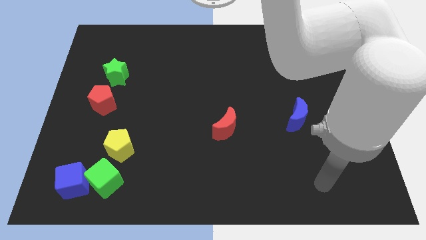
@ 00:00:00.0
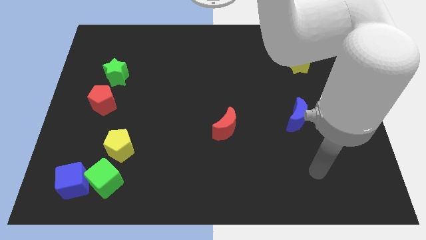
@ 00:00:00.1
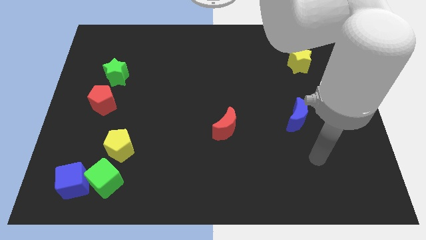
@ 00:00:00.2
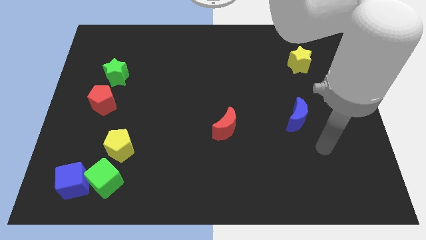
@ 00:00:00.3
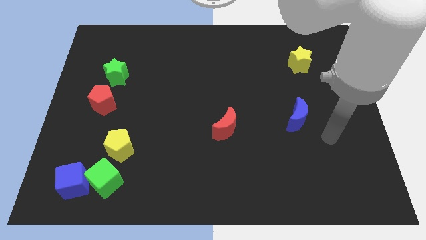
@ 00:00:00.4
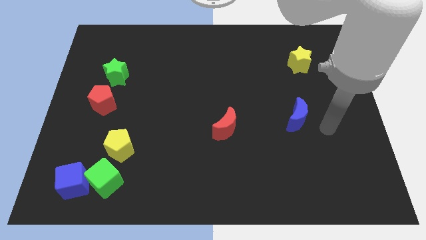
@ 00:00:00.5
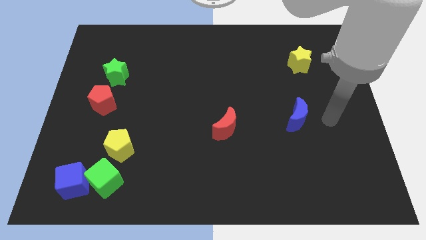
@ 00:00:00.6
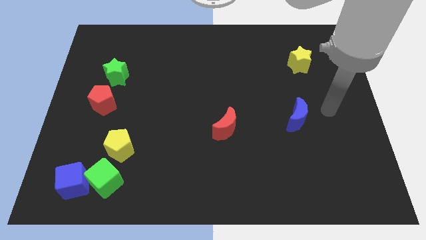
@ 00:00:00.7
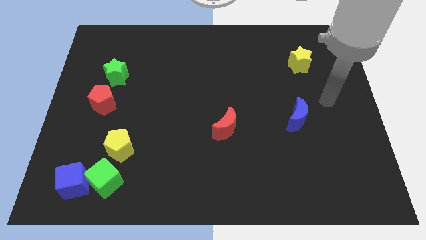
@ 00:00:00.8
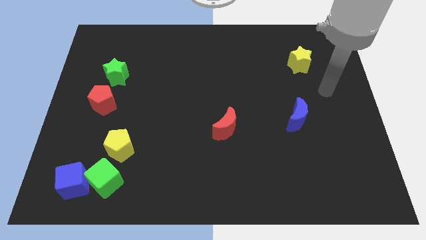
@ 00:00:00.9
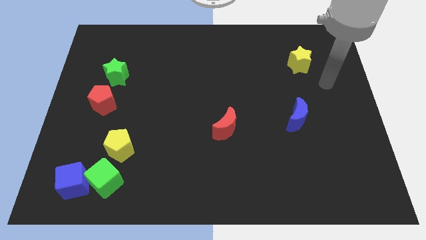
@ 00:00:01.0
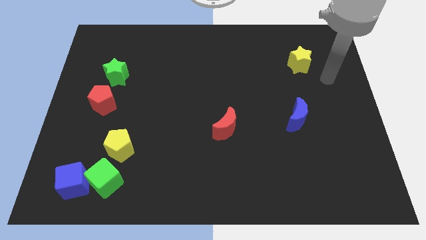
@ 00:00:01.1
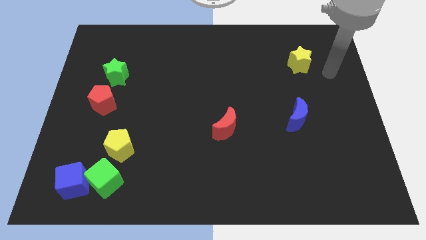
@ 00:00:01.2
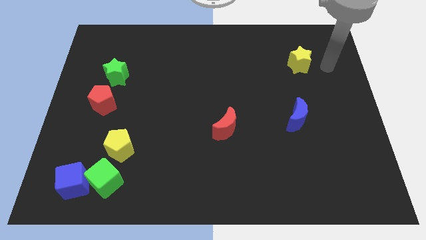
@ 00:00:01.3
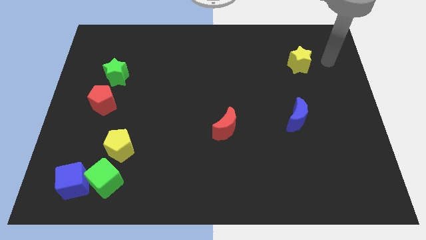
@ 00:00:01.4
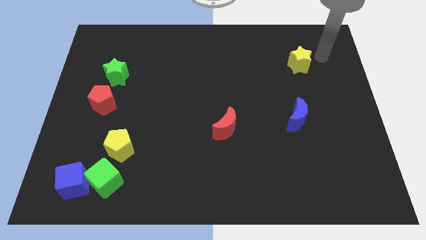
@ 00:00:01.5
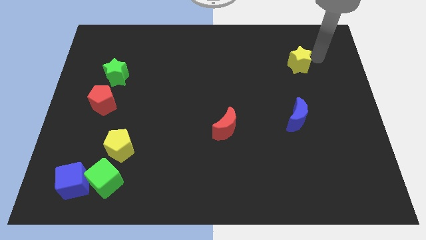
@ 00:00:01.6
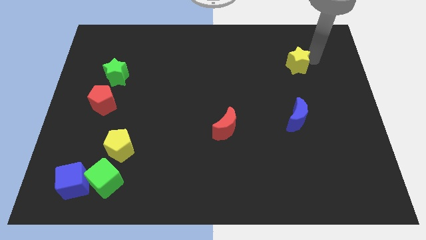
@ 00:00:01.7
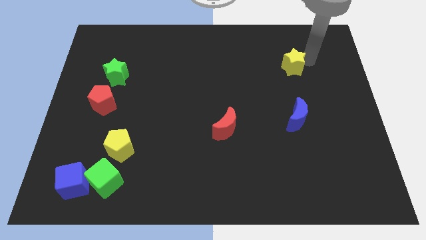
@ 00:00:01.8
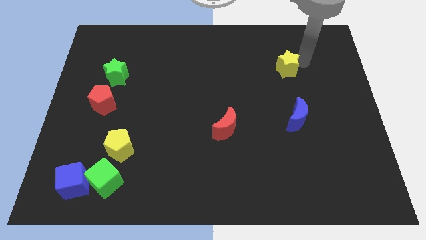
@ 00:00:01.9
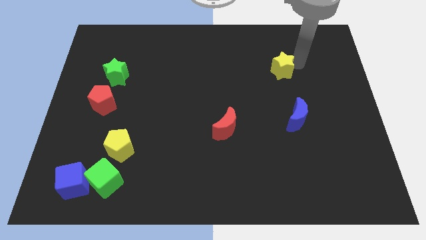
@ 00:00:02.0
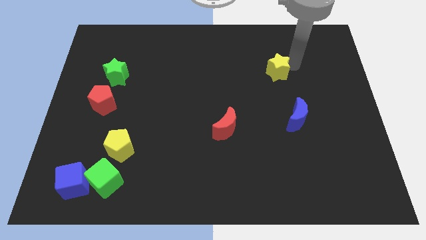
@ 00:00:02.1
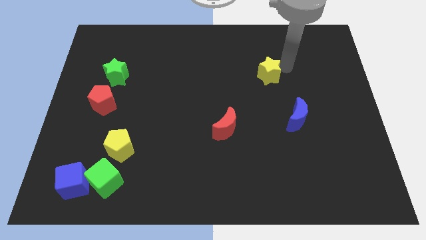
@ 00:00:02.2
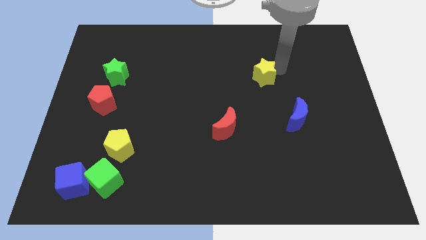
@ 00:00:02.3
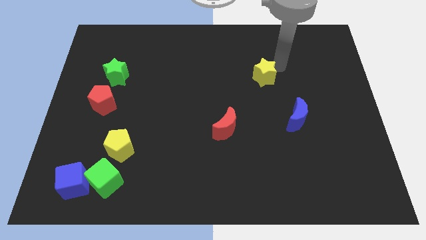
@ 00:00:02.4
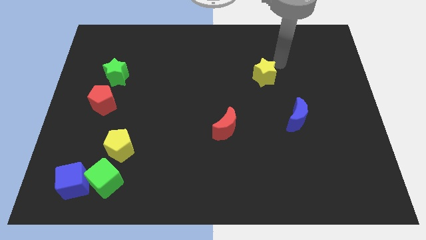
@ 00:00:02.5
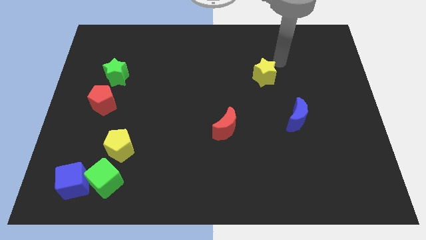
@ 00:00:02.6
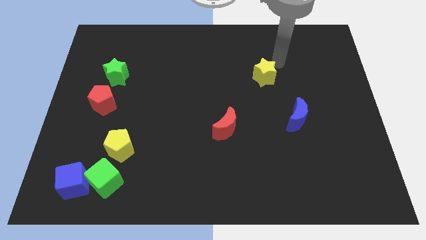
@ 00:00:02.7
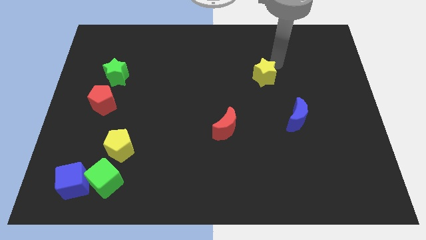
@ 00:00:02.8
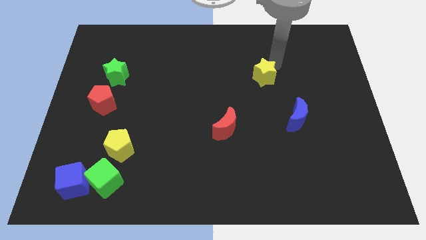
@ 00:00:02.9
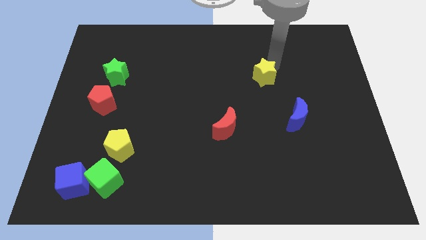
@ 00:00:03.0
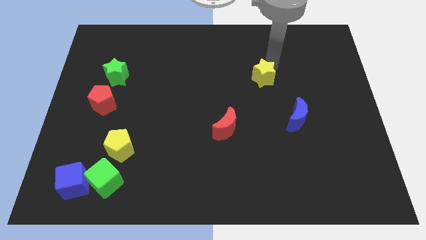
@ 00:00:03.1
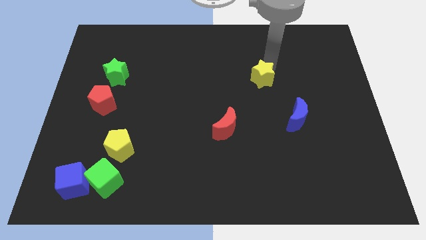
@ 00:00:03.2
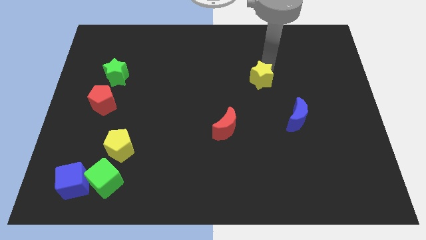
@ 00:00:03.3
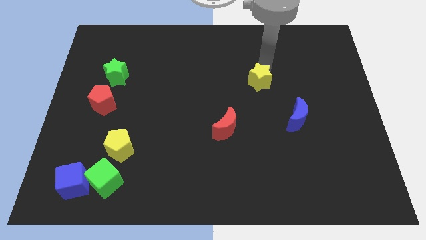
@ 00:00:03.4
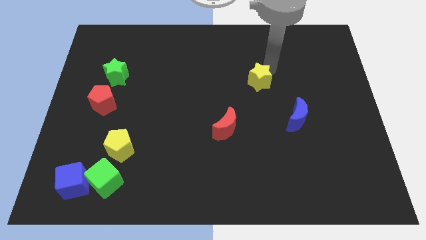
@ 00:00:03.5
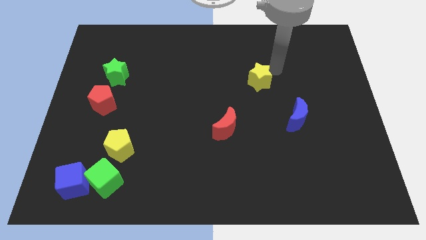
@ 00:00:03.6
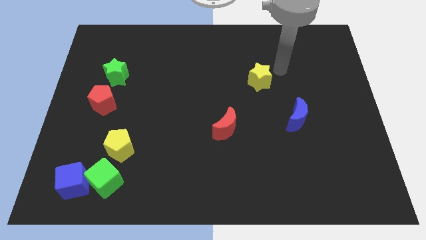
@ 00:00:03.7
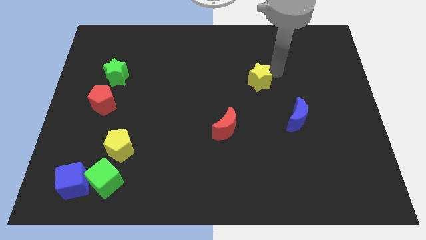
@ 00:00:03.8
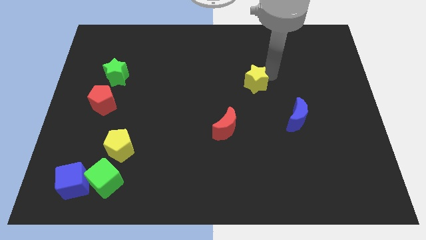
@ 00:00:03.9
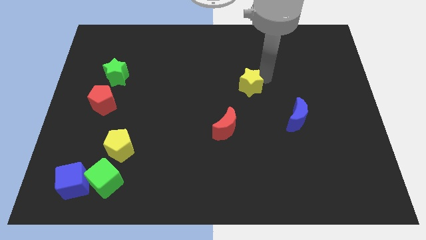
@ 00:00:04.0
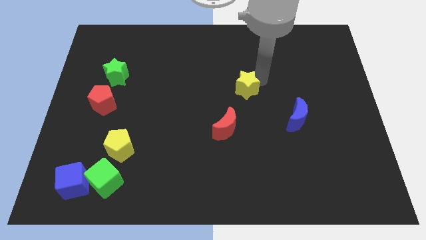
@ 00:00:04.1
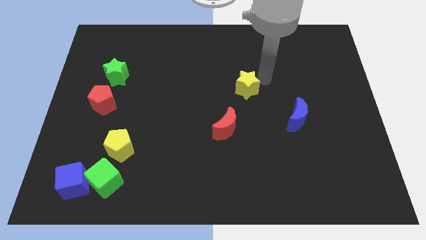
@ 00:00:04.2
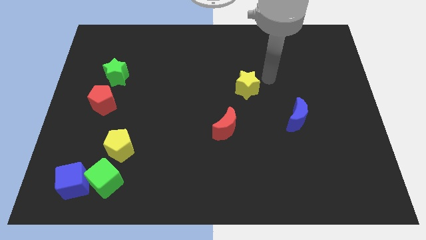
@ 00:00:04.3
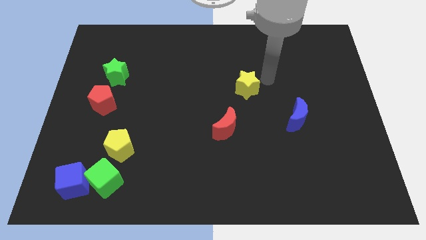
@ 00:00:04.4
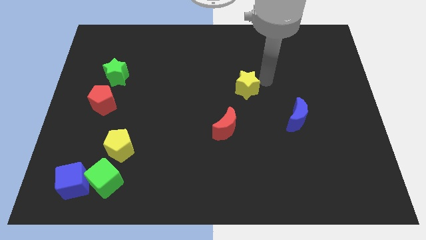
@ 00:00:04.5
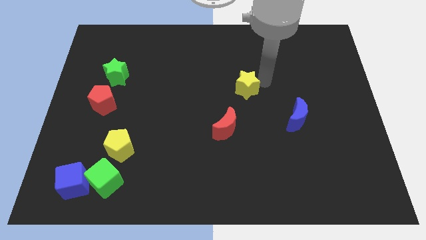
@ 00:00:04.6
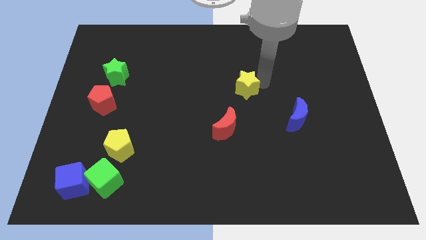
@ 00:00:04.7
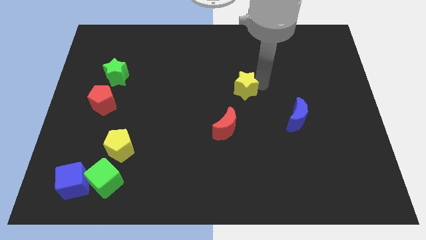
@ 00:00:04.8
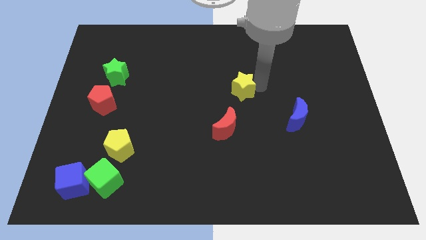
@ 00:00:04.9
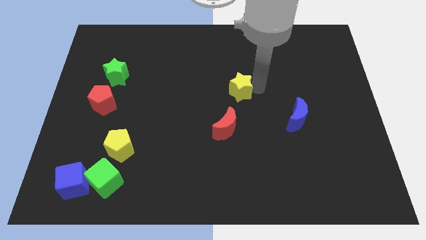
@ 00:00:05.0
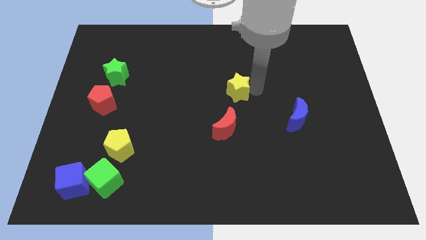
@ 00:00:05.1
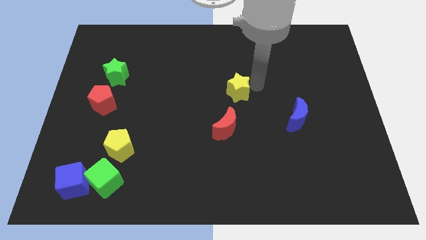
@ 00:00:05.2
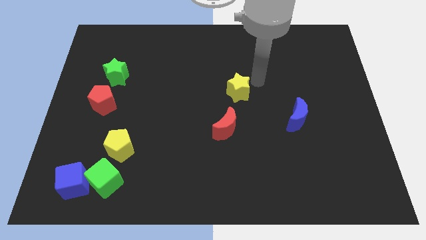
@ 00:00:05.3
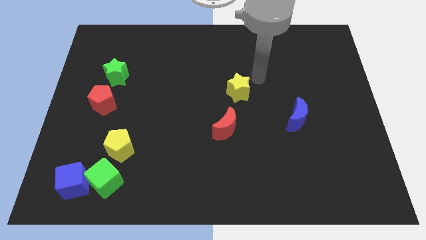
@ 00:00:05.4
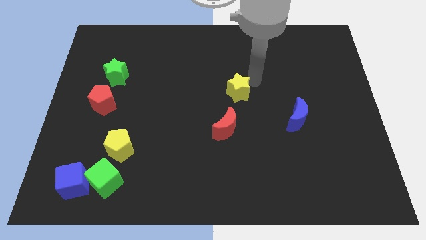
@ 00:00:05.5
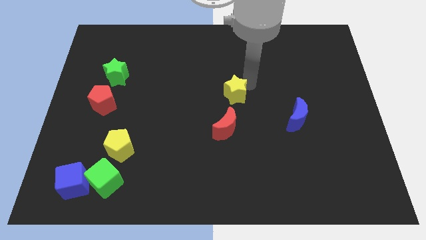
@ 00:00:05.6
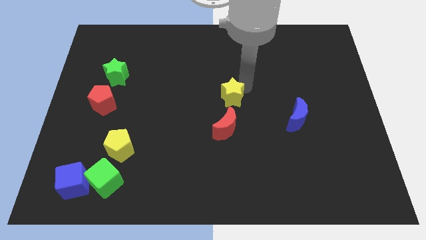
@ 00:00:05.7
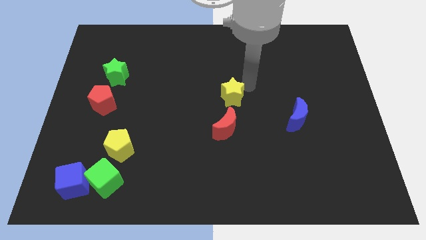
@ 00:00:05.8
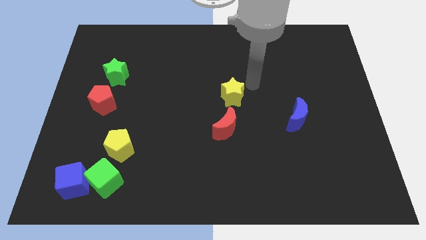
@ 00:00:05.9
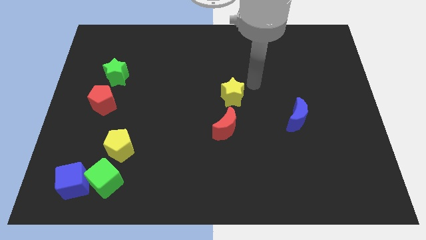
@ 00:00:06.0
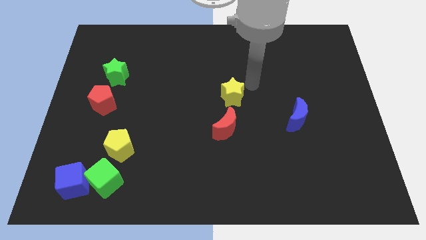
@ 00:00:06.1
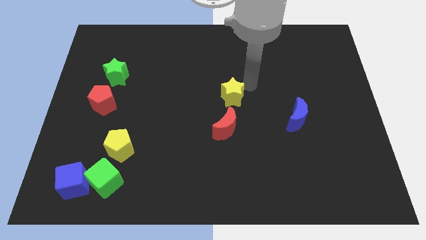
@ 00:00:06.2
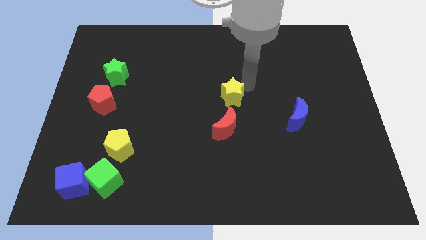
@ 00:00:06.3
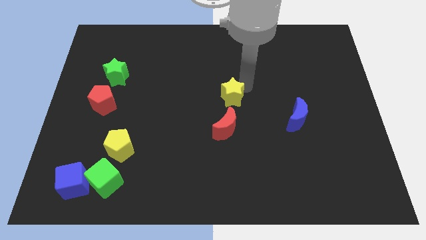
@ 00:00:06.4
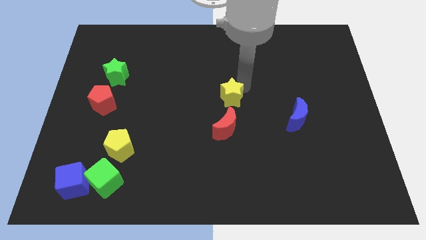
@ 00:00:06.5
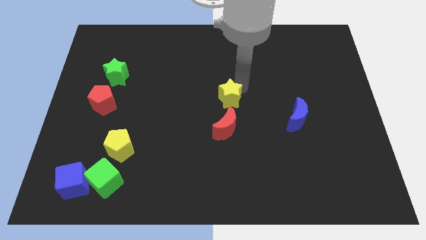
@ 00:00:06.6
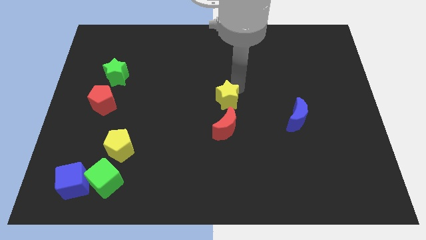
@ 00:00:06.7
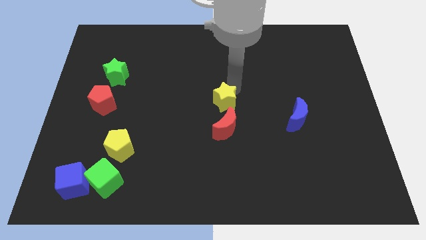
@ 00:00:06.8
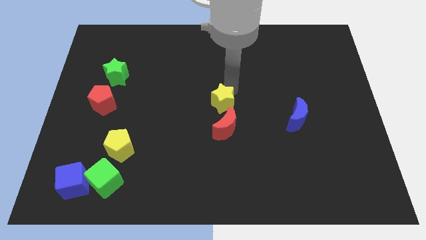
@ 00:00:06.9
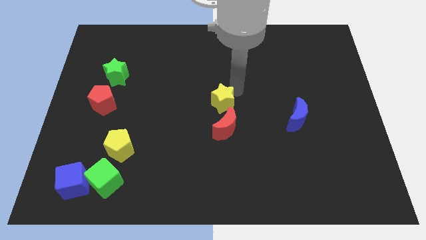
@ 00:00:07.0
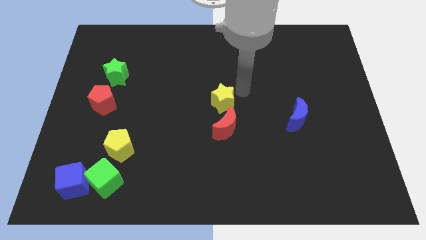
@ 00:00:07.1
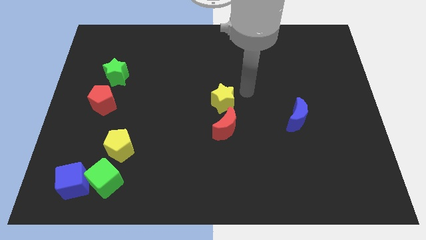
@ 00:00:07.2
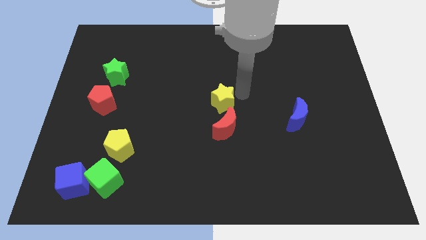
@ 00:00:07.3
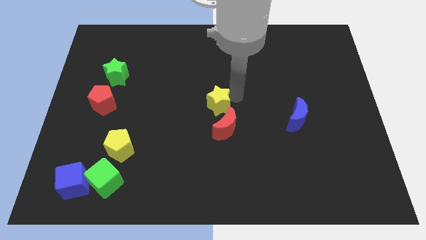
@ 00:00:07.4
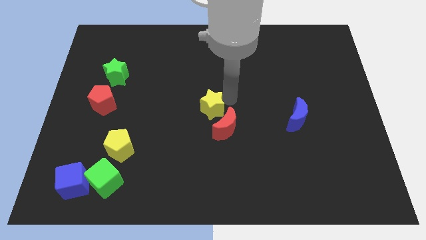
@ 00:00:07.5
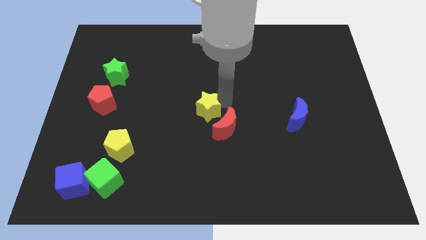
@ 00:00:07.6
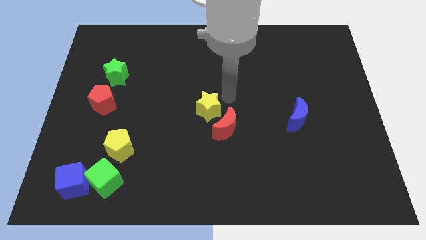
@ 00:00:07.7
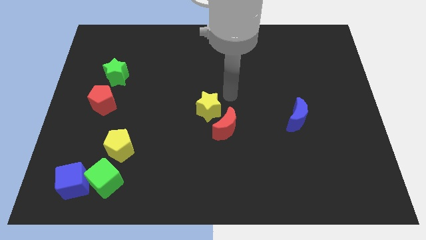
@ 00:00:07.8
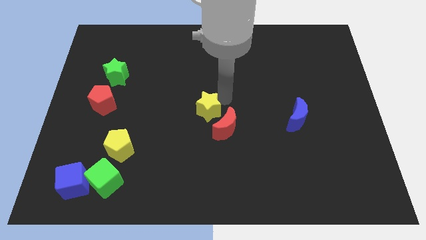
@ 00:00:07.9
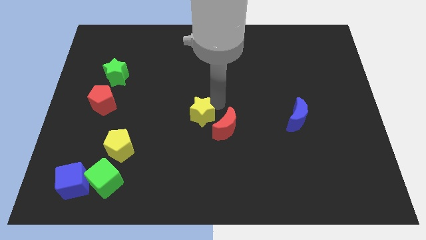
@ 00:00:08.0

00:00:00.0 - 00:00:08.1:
put the yellow star just left of the red moon
